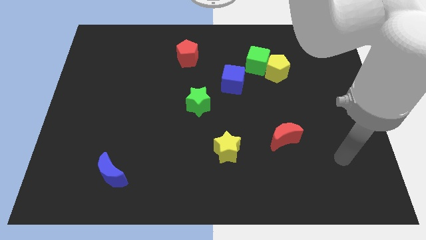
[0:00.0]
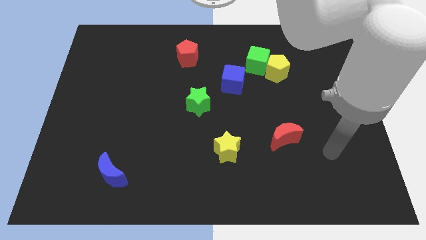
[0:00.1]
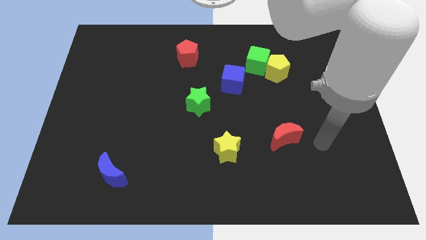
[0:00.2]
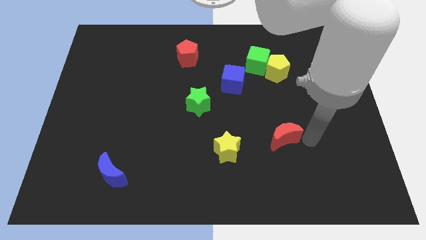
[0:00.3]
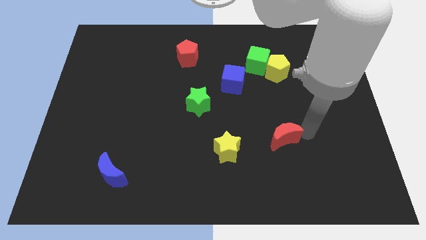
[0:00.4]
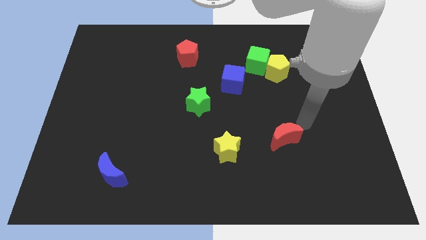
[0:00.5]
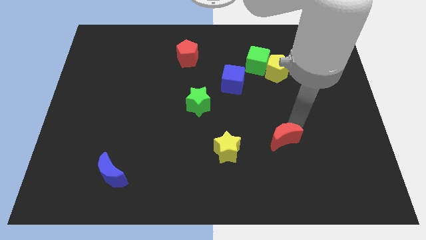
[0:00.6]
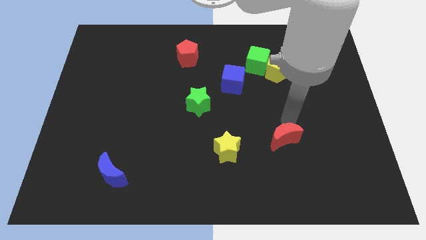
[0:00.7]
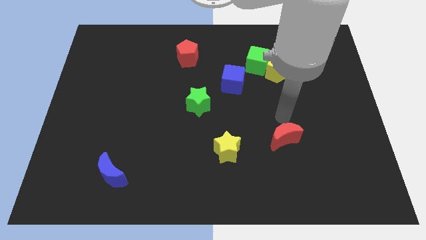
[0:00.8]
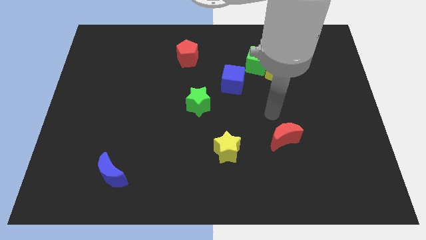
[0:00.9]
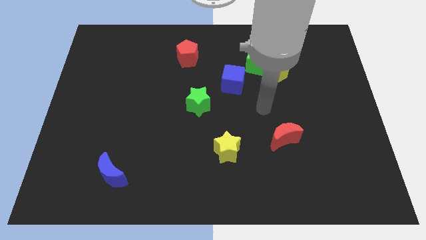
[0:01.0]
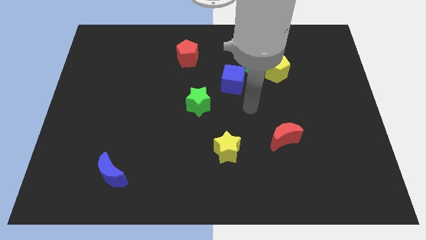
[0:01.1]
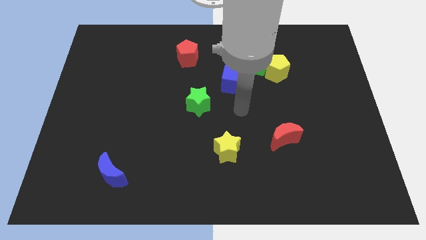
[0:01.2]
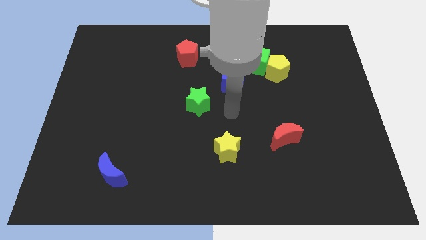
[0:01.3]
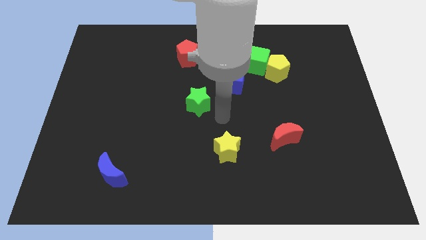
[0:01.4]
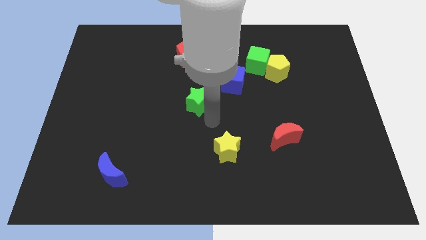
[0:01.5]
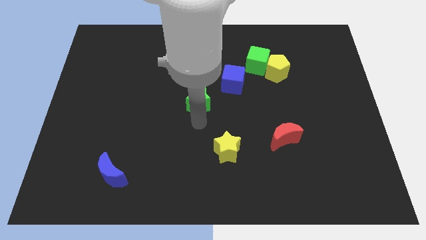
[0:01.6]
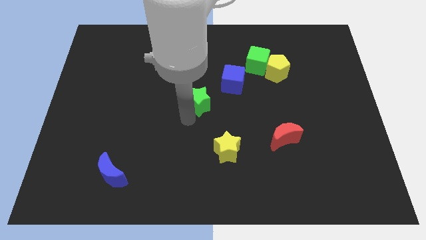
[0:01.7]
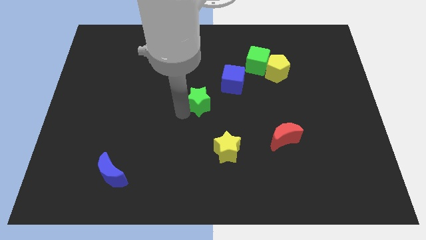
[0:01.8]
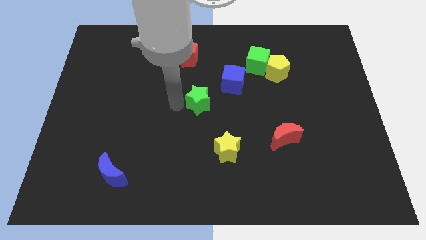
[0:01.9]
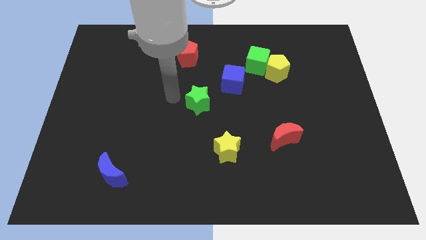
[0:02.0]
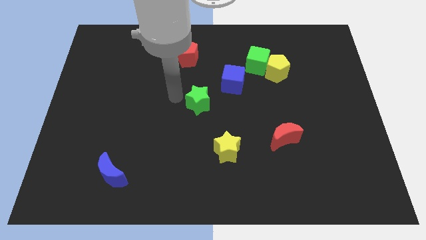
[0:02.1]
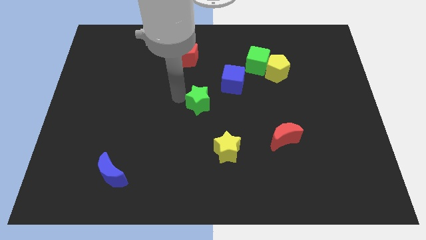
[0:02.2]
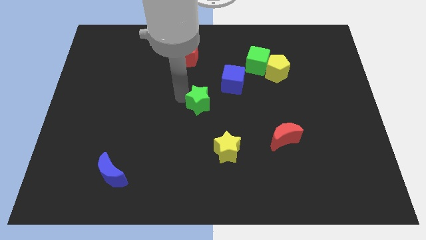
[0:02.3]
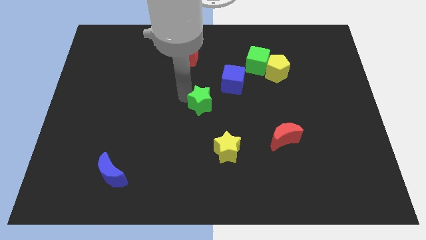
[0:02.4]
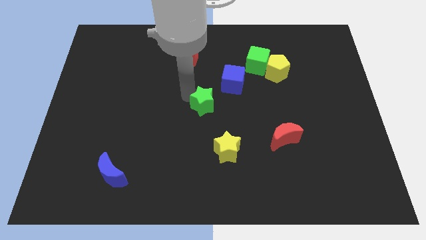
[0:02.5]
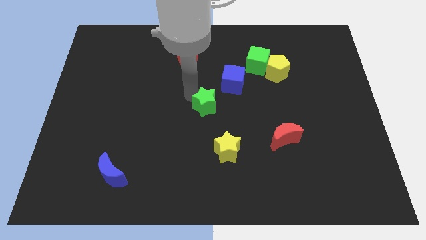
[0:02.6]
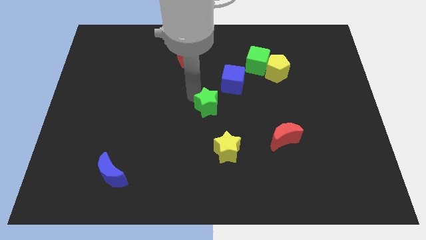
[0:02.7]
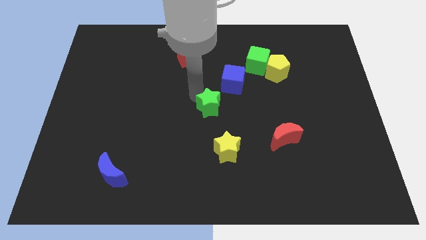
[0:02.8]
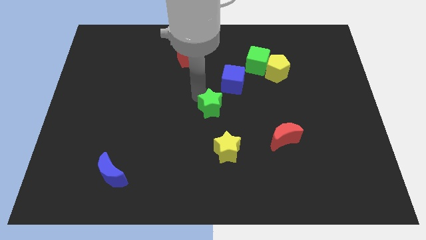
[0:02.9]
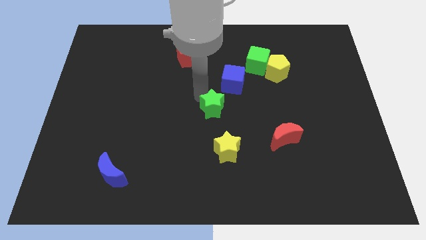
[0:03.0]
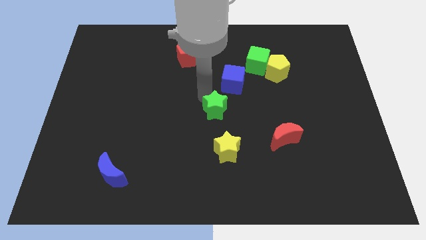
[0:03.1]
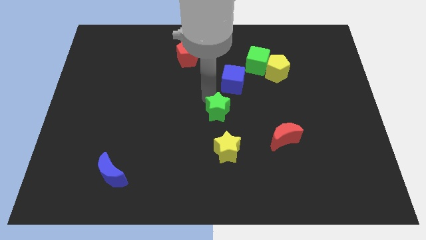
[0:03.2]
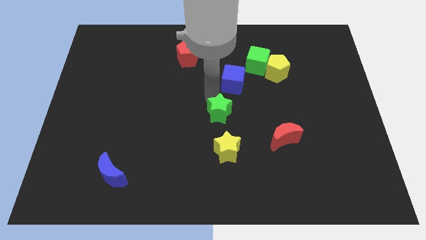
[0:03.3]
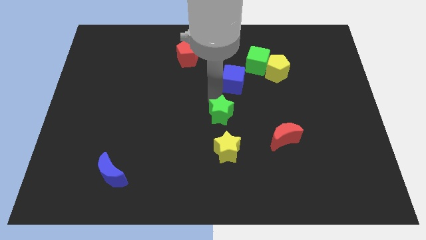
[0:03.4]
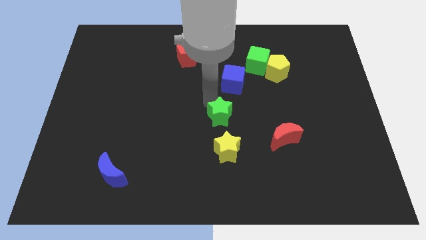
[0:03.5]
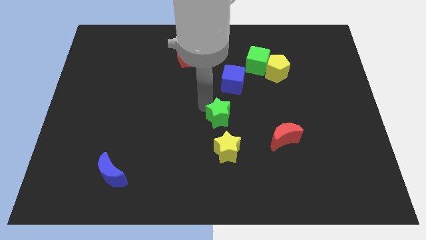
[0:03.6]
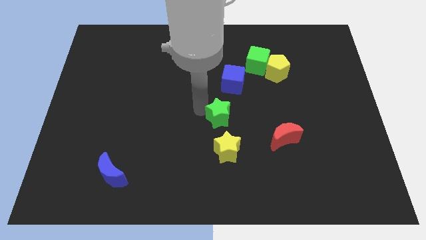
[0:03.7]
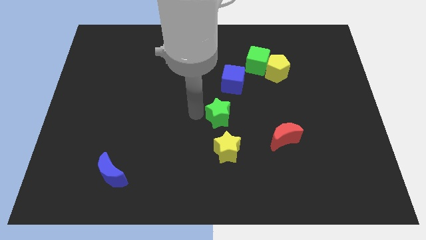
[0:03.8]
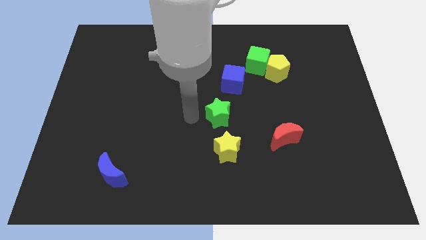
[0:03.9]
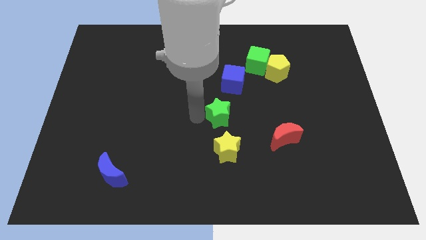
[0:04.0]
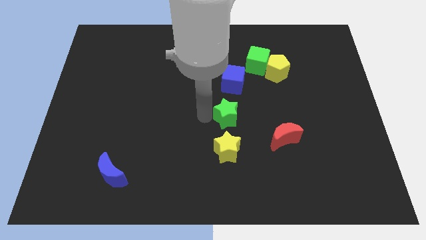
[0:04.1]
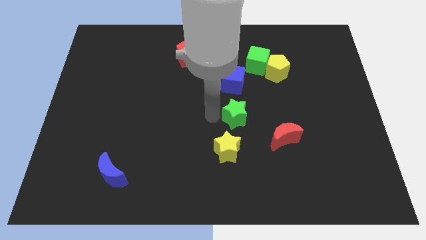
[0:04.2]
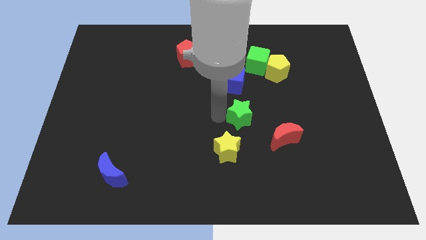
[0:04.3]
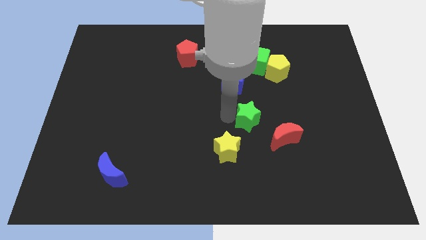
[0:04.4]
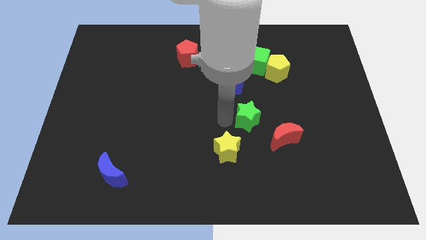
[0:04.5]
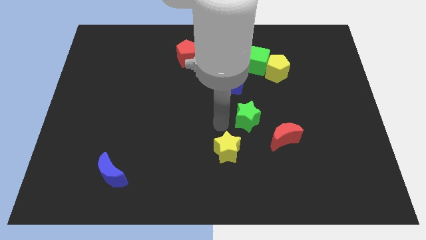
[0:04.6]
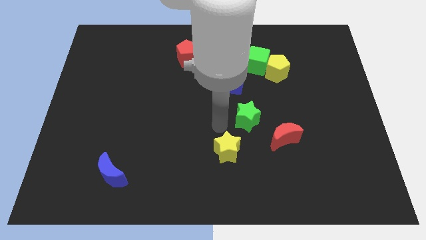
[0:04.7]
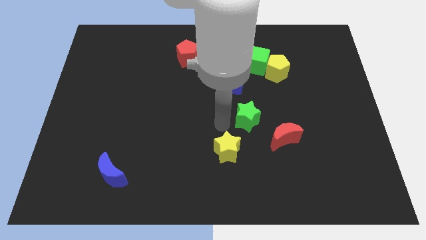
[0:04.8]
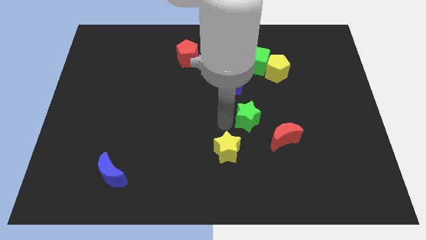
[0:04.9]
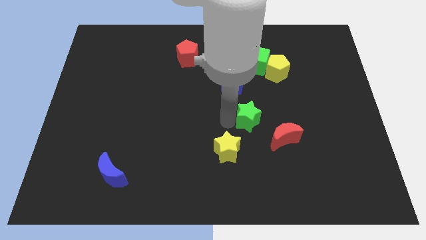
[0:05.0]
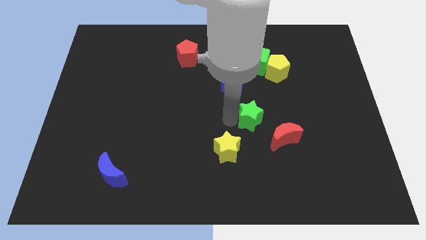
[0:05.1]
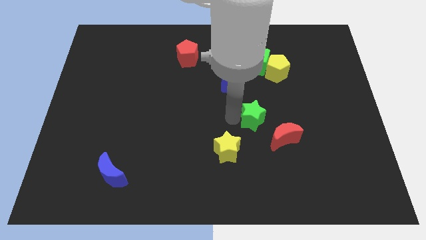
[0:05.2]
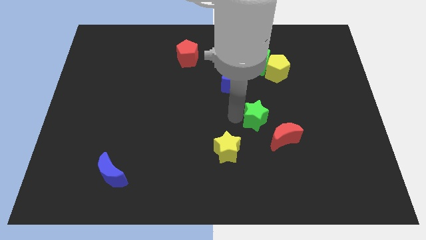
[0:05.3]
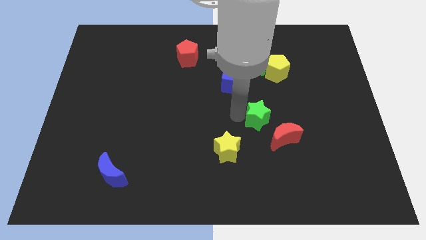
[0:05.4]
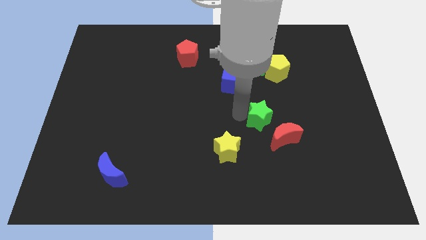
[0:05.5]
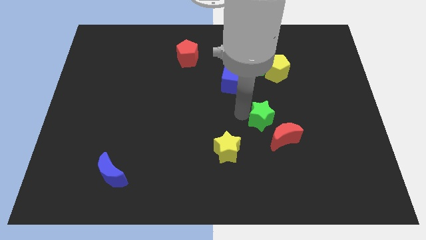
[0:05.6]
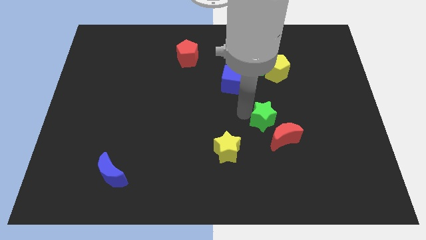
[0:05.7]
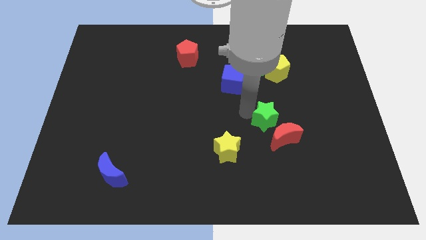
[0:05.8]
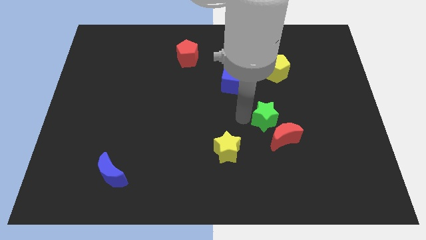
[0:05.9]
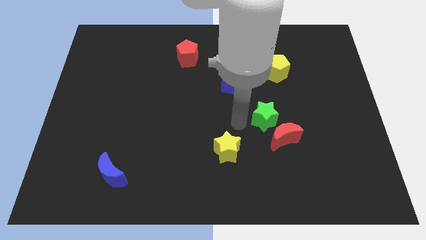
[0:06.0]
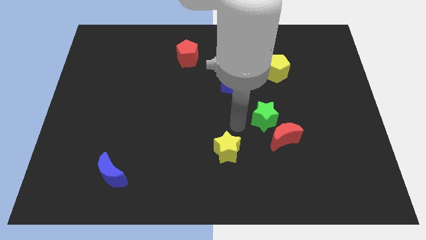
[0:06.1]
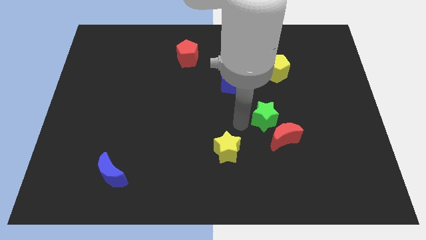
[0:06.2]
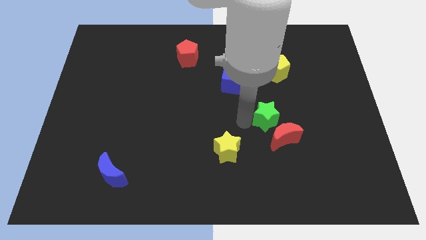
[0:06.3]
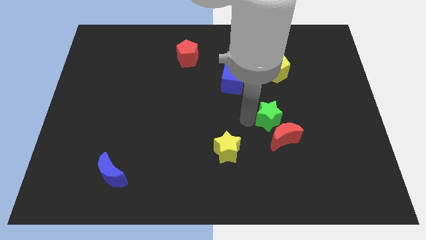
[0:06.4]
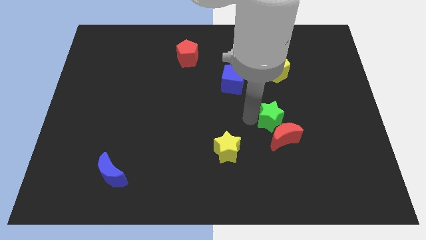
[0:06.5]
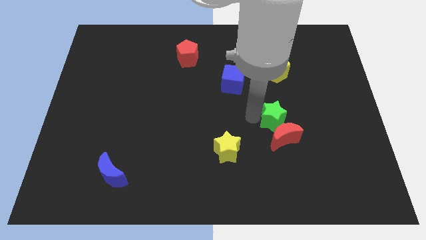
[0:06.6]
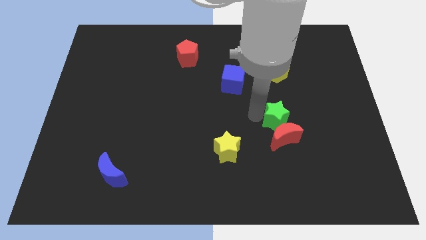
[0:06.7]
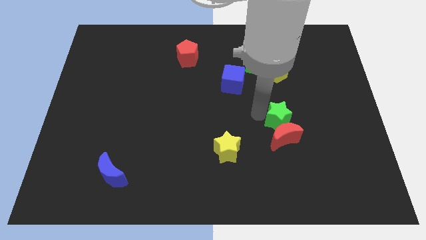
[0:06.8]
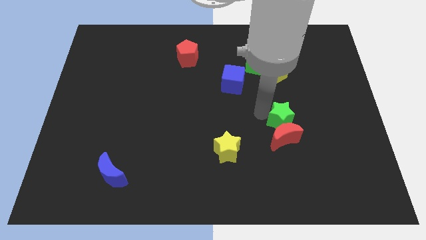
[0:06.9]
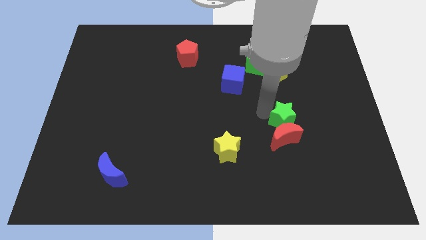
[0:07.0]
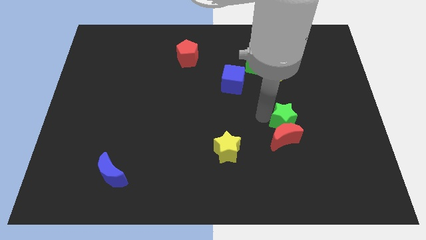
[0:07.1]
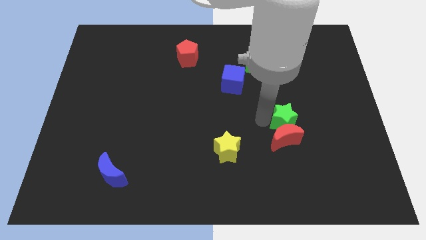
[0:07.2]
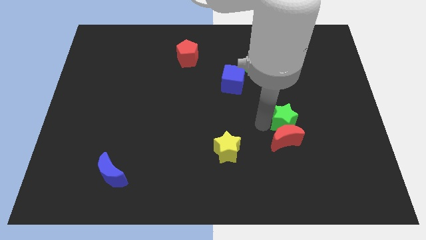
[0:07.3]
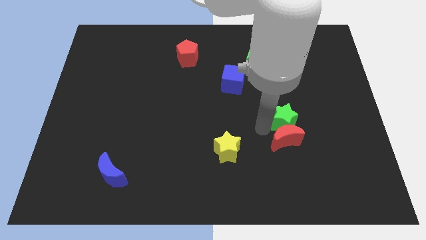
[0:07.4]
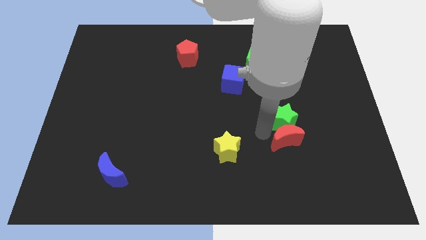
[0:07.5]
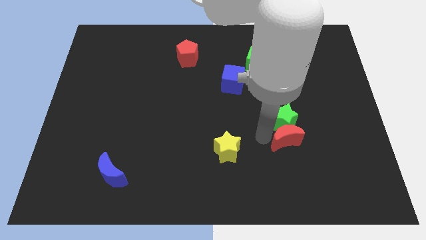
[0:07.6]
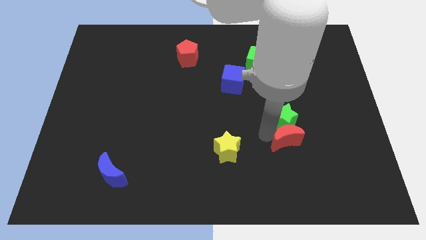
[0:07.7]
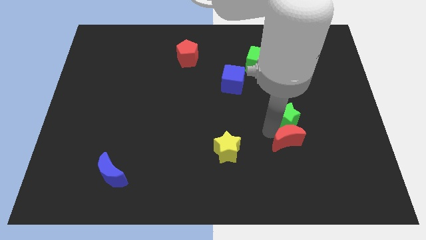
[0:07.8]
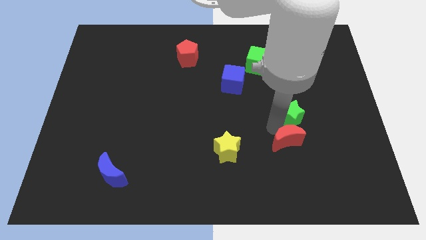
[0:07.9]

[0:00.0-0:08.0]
move the green star right

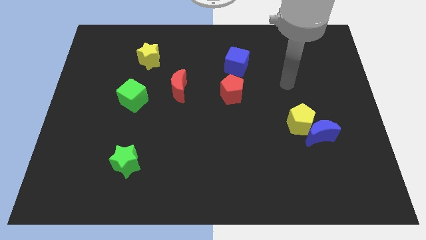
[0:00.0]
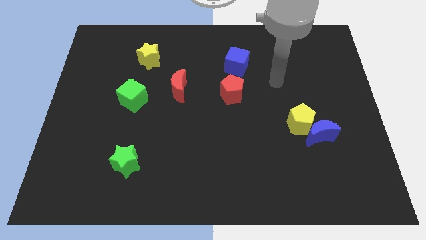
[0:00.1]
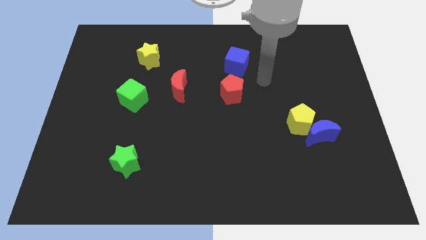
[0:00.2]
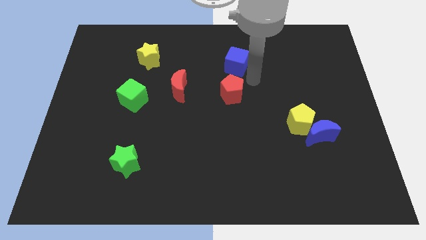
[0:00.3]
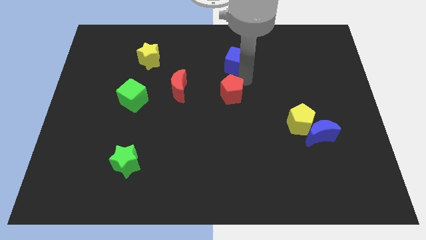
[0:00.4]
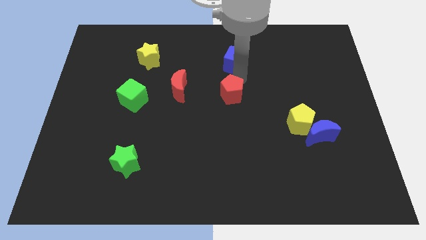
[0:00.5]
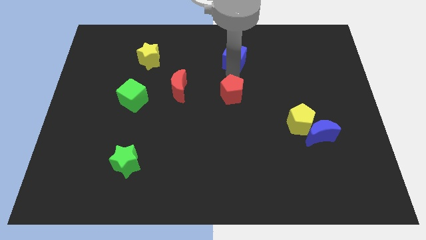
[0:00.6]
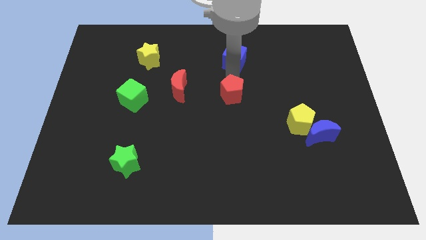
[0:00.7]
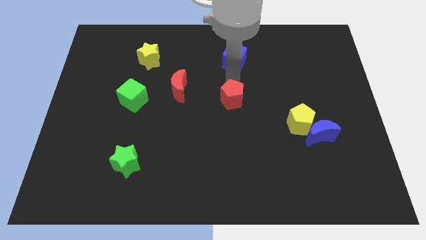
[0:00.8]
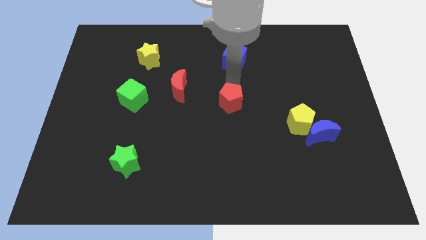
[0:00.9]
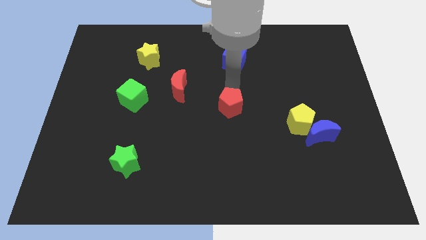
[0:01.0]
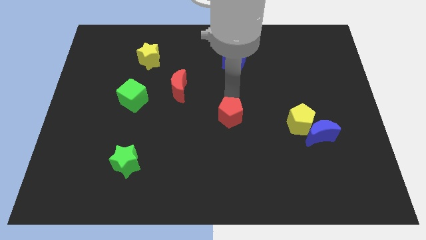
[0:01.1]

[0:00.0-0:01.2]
move the red pentagon downwards slightly
